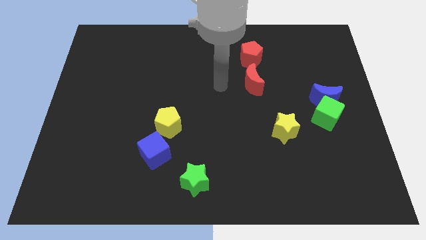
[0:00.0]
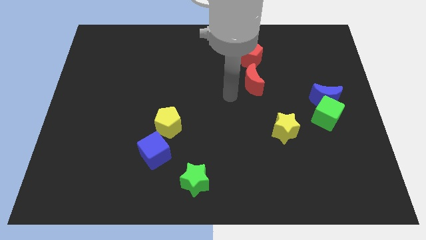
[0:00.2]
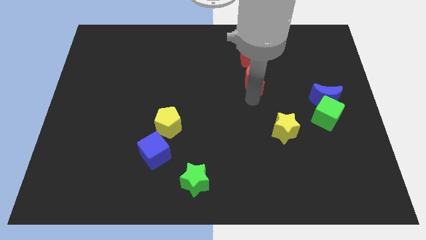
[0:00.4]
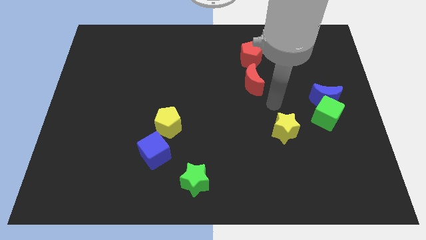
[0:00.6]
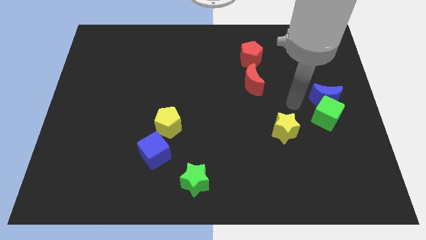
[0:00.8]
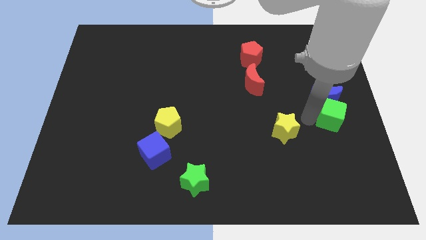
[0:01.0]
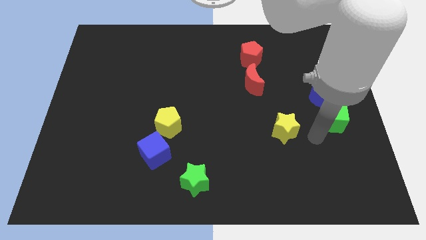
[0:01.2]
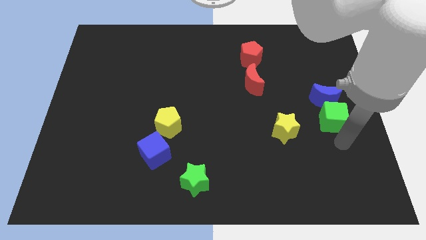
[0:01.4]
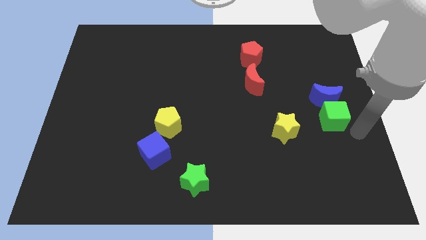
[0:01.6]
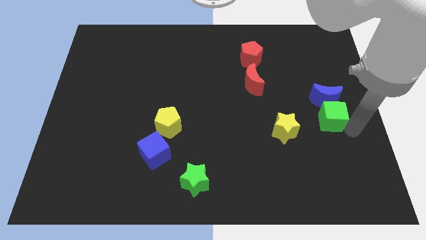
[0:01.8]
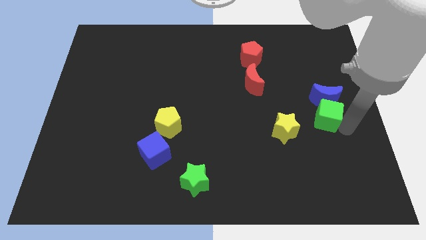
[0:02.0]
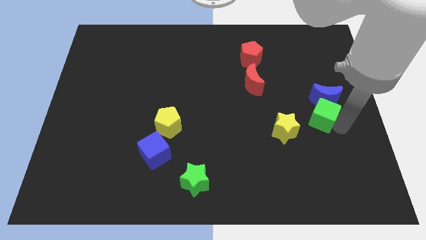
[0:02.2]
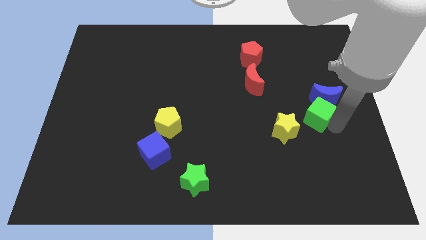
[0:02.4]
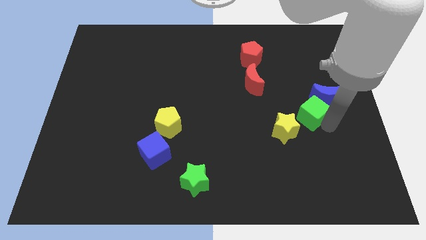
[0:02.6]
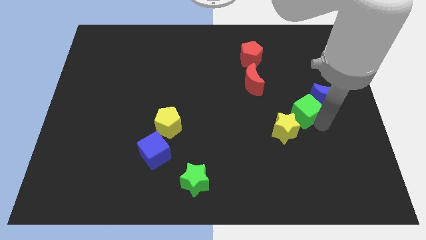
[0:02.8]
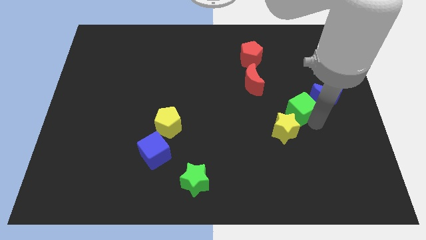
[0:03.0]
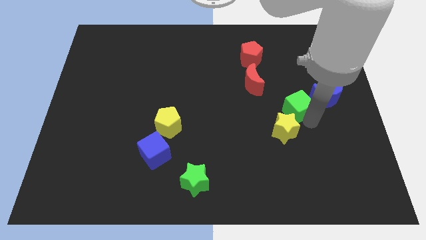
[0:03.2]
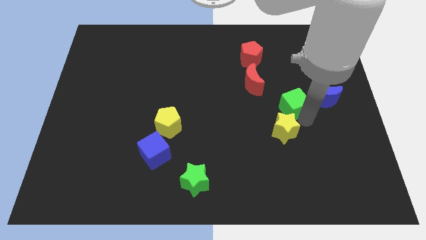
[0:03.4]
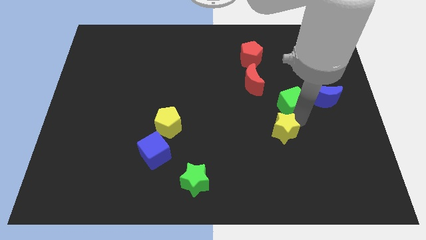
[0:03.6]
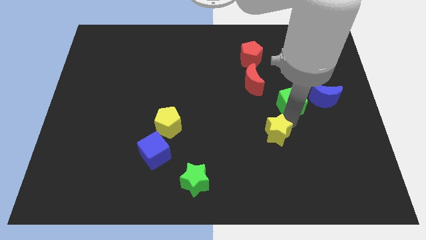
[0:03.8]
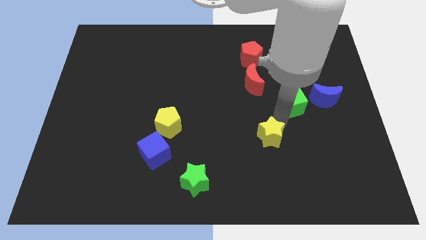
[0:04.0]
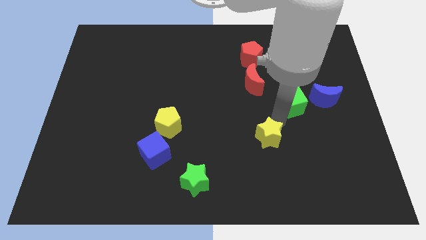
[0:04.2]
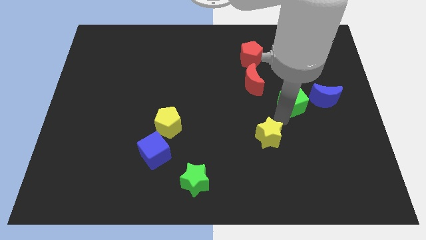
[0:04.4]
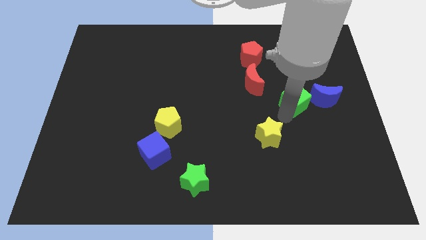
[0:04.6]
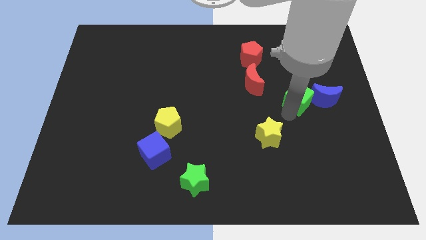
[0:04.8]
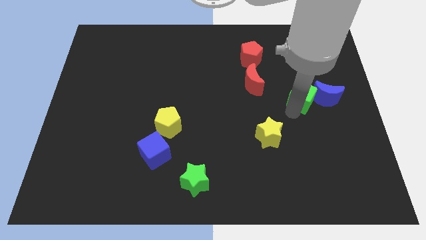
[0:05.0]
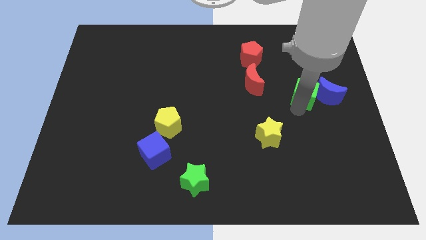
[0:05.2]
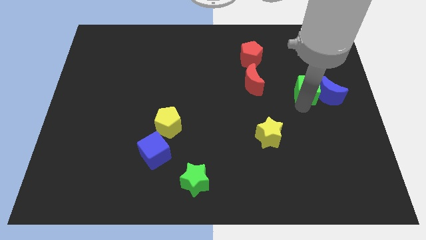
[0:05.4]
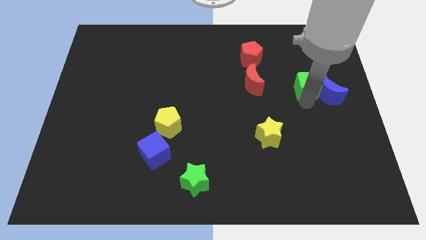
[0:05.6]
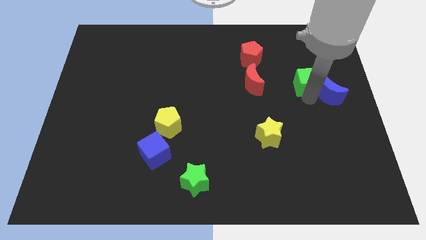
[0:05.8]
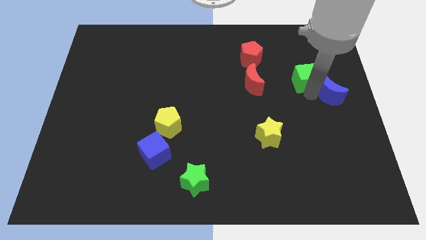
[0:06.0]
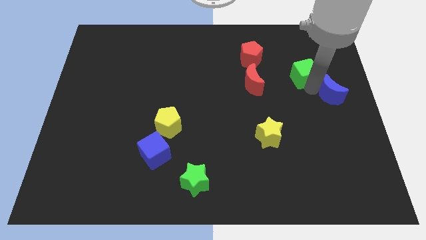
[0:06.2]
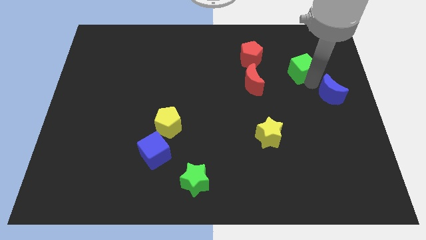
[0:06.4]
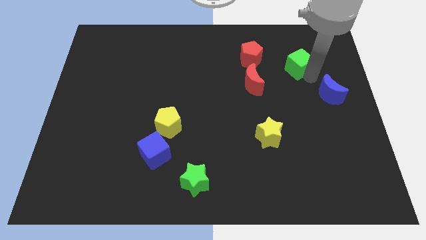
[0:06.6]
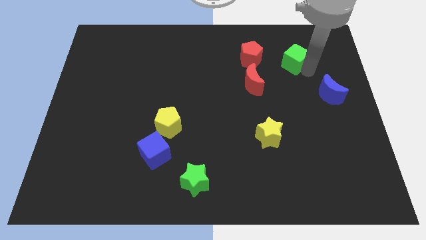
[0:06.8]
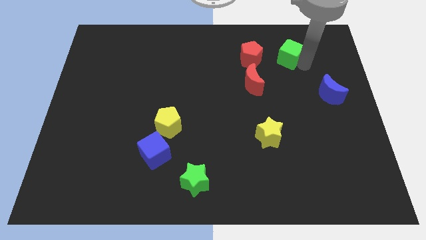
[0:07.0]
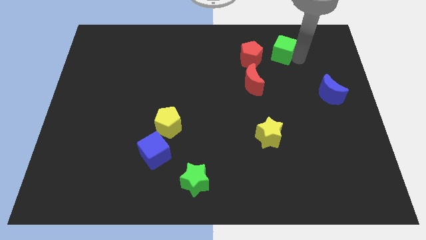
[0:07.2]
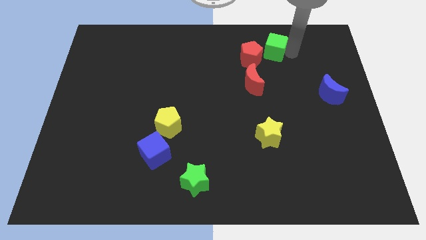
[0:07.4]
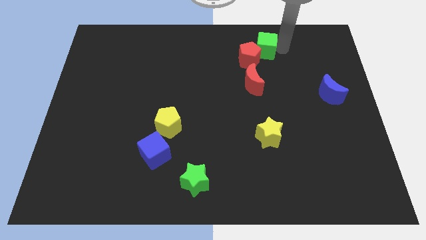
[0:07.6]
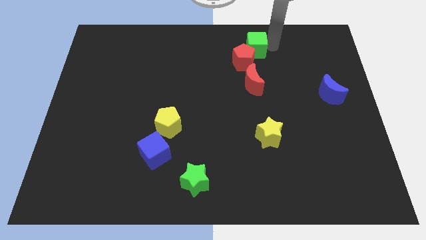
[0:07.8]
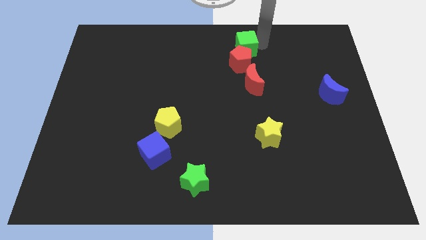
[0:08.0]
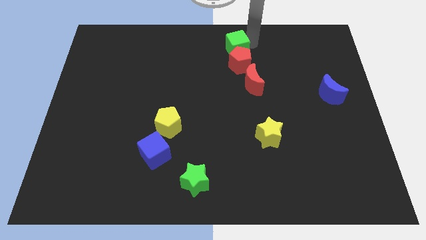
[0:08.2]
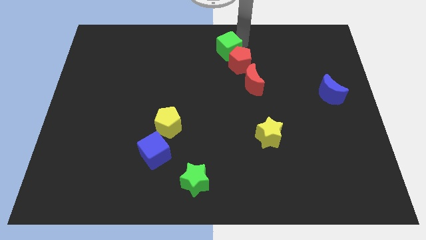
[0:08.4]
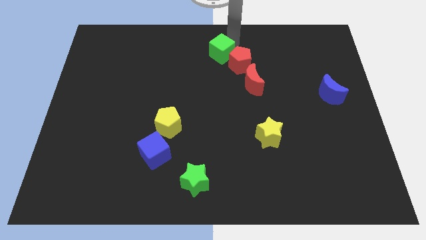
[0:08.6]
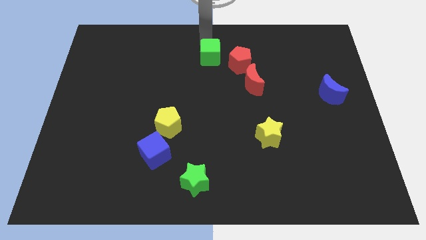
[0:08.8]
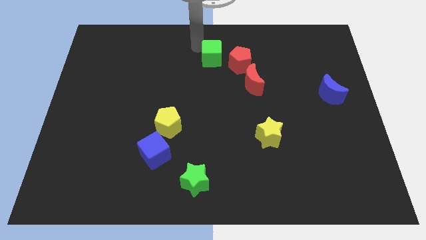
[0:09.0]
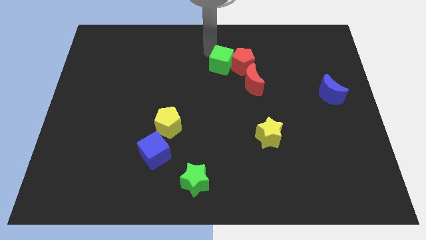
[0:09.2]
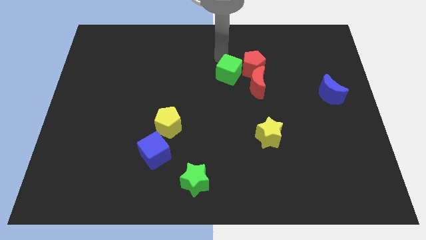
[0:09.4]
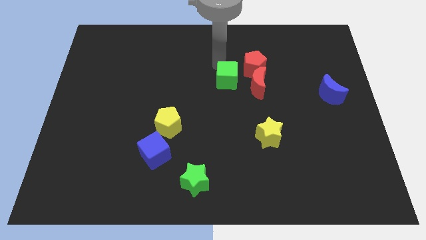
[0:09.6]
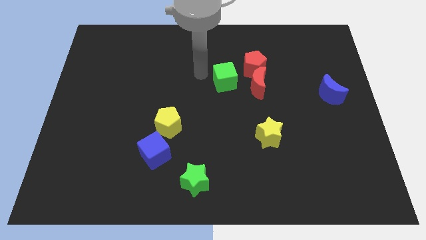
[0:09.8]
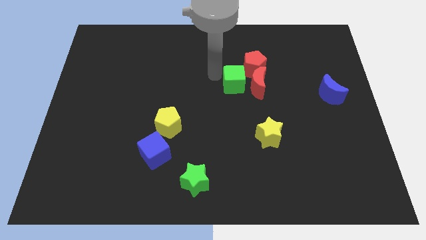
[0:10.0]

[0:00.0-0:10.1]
slide the green cube close to the red moon

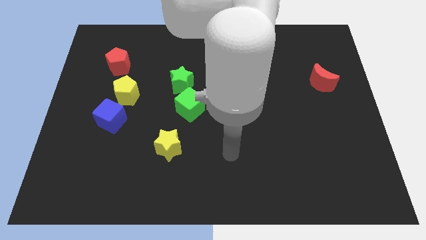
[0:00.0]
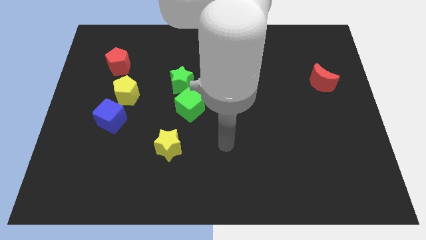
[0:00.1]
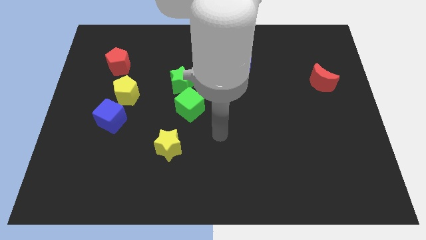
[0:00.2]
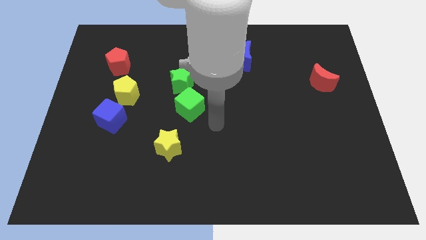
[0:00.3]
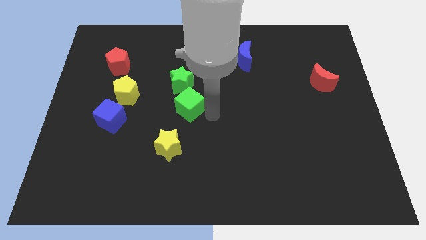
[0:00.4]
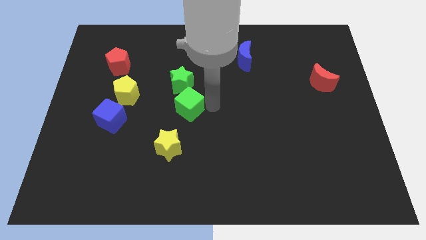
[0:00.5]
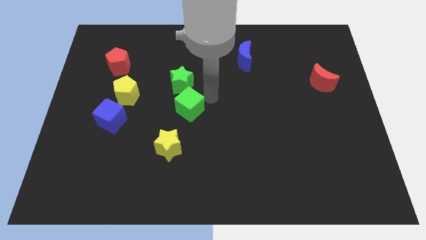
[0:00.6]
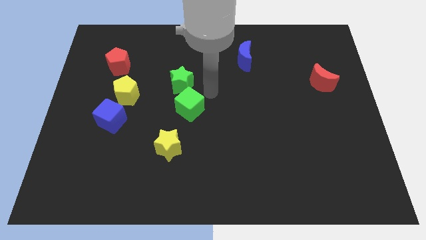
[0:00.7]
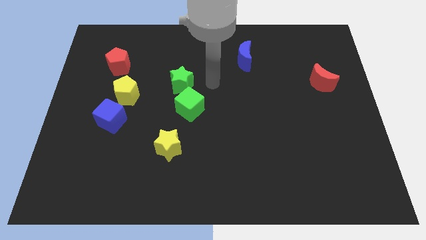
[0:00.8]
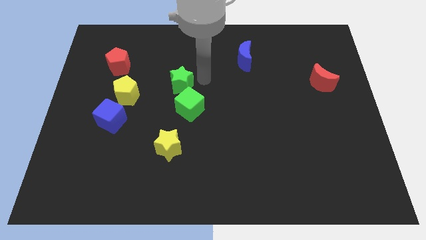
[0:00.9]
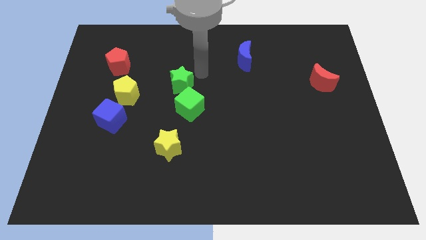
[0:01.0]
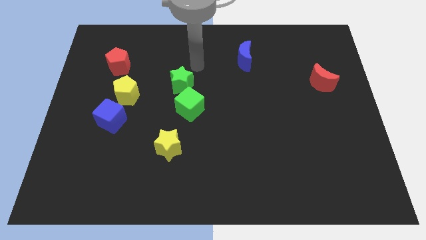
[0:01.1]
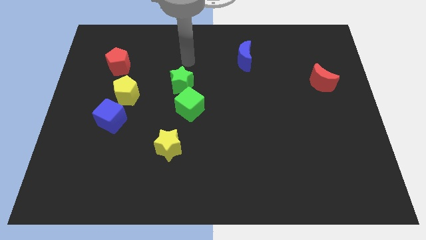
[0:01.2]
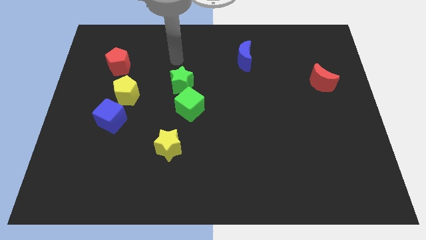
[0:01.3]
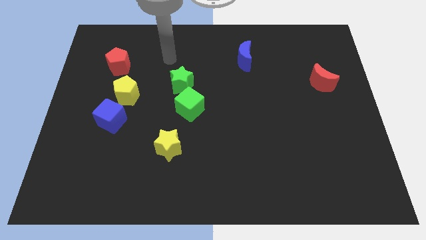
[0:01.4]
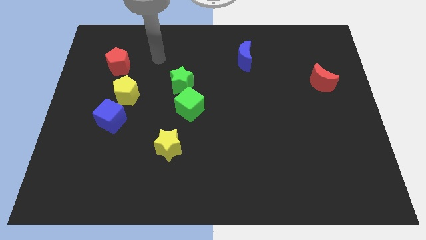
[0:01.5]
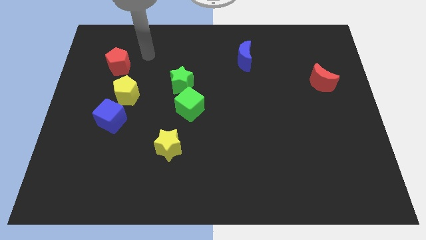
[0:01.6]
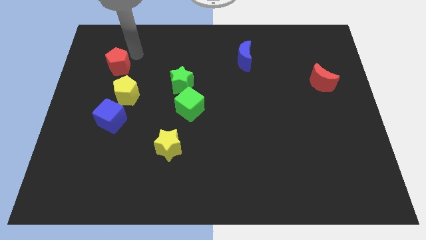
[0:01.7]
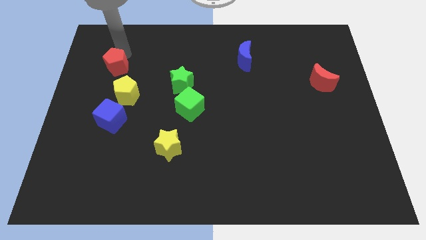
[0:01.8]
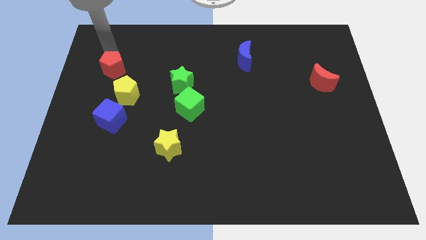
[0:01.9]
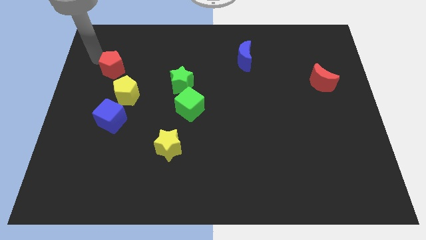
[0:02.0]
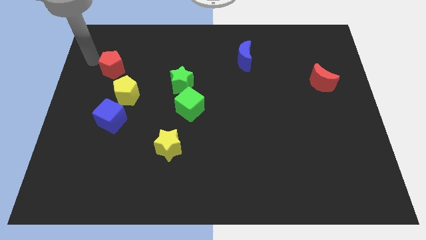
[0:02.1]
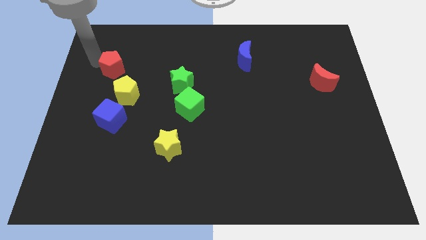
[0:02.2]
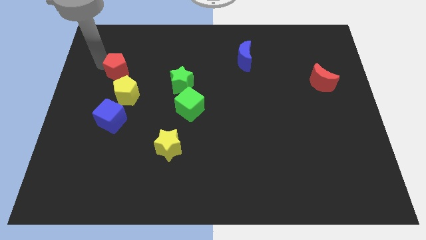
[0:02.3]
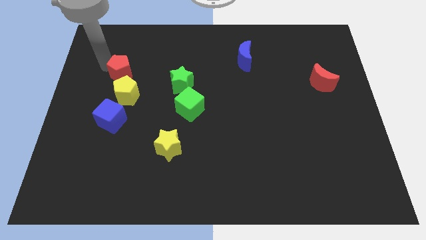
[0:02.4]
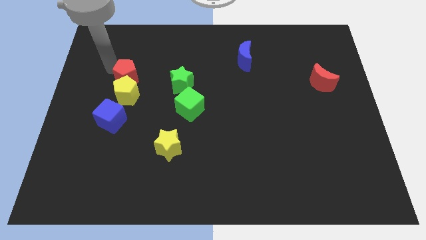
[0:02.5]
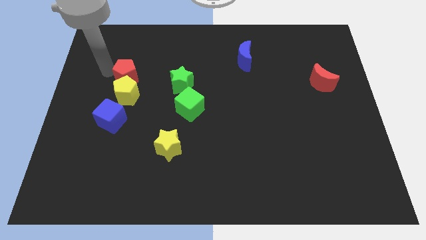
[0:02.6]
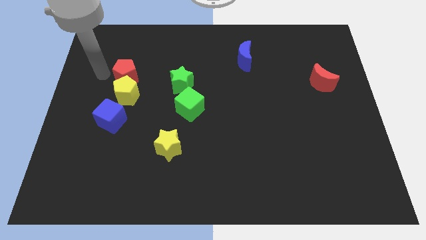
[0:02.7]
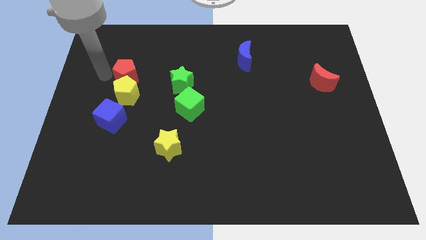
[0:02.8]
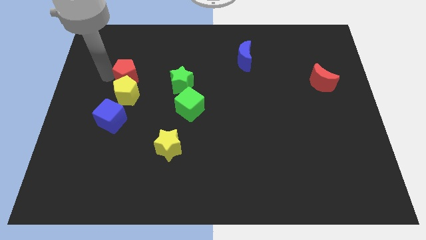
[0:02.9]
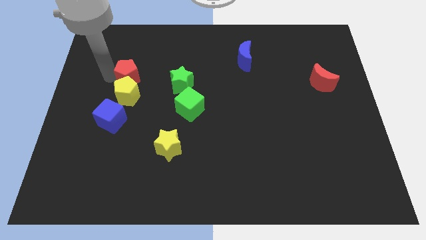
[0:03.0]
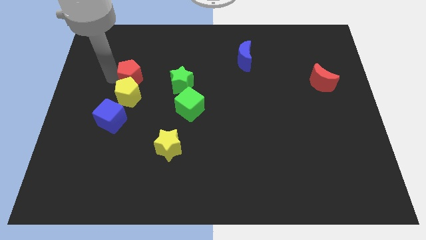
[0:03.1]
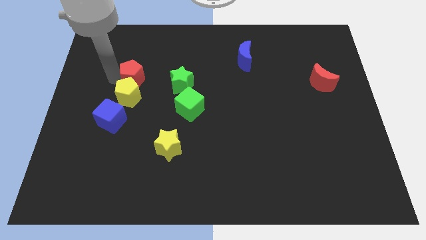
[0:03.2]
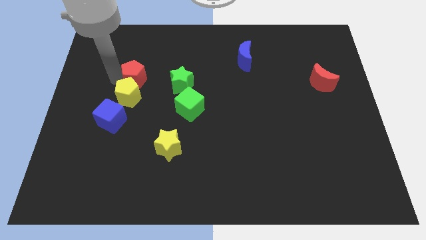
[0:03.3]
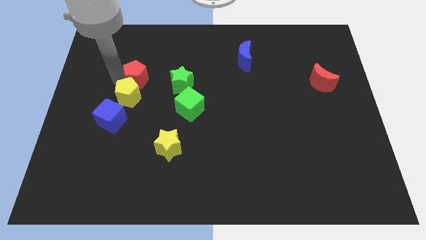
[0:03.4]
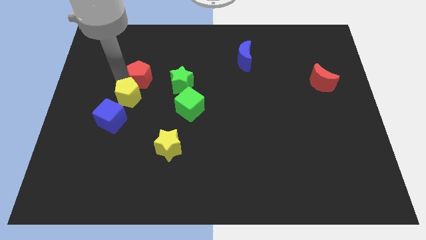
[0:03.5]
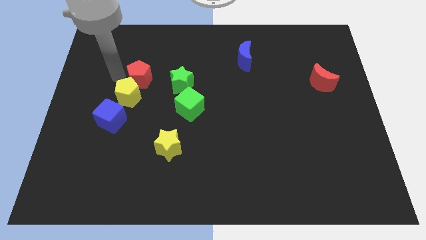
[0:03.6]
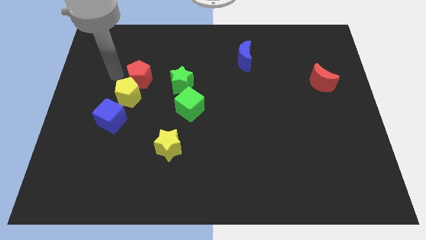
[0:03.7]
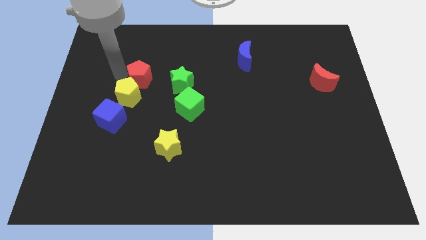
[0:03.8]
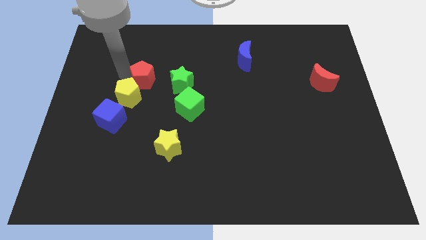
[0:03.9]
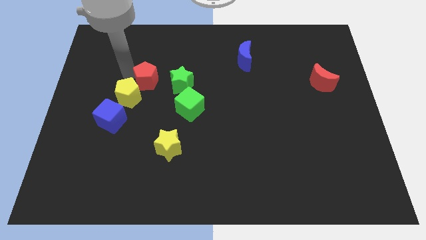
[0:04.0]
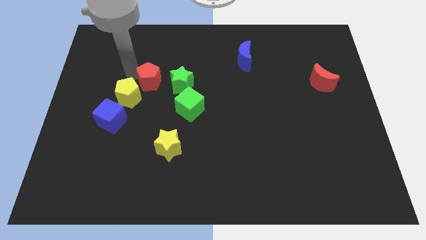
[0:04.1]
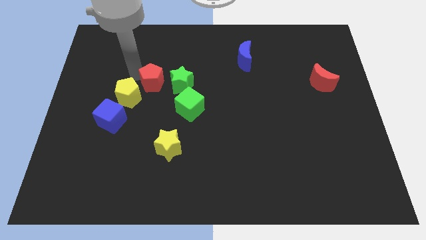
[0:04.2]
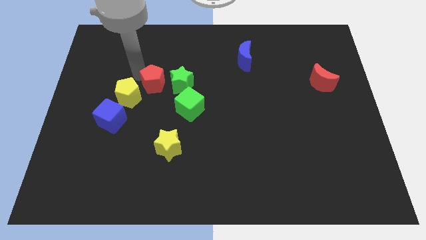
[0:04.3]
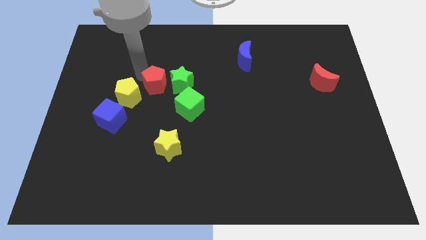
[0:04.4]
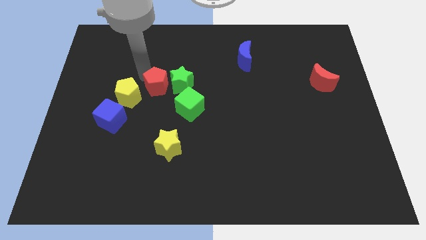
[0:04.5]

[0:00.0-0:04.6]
put the red pentagon towards the green star
